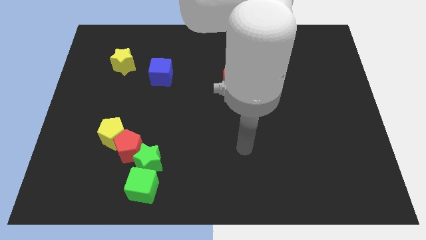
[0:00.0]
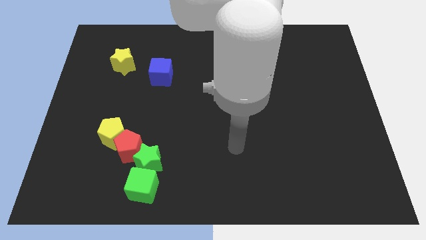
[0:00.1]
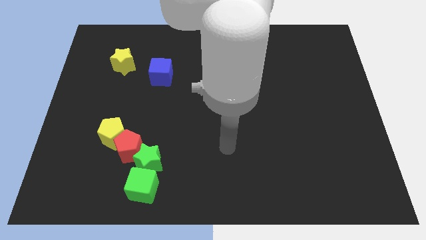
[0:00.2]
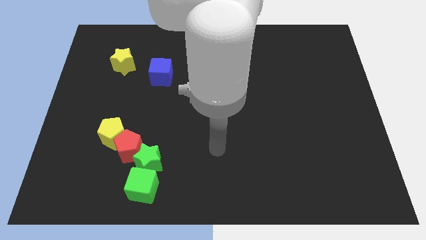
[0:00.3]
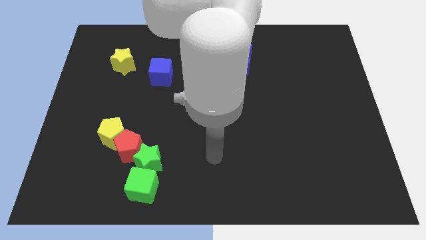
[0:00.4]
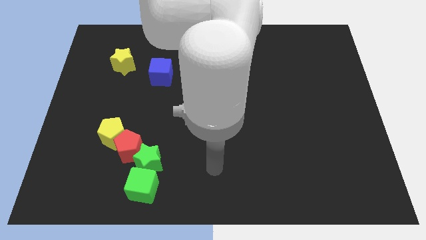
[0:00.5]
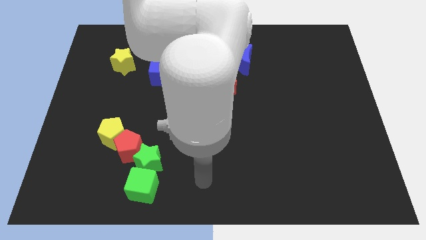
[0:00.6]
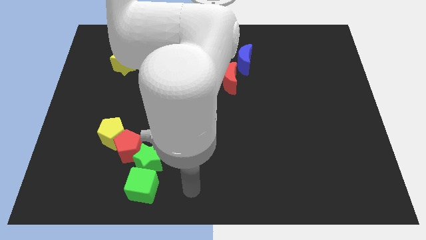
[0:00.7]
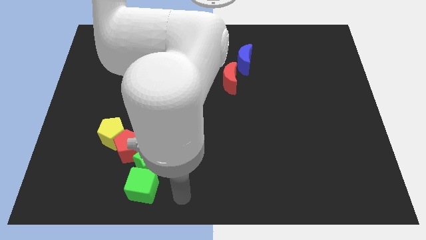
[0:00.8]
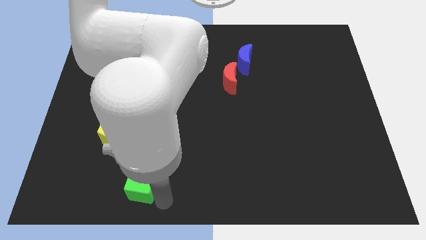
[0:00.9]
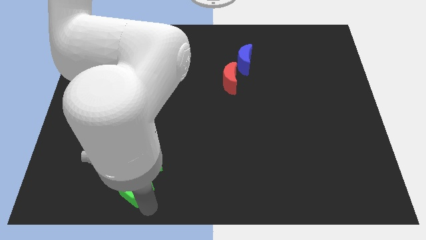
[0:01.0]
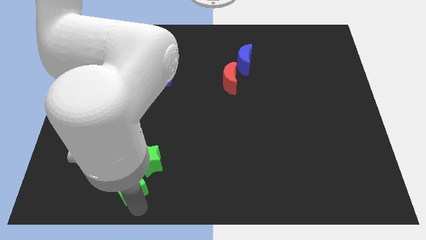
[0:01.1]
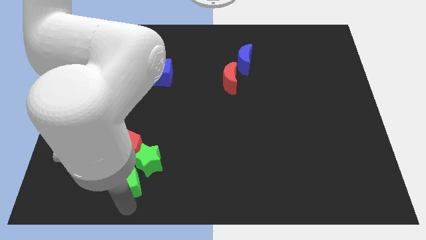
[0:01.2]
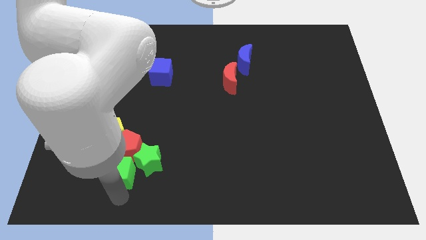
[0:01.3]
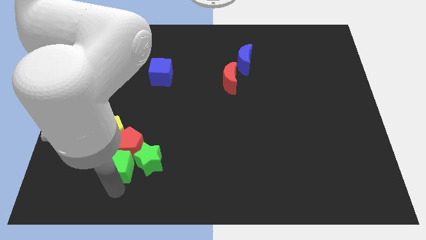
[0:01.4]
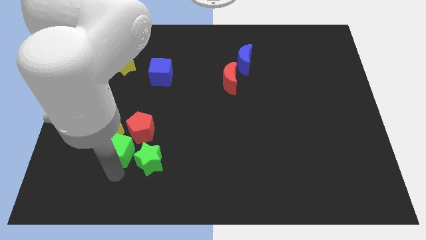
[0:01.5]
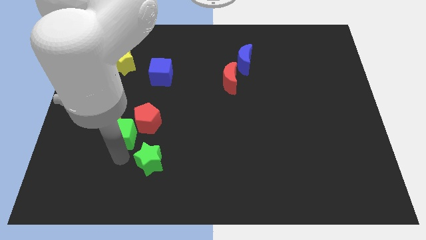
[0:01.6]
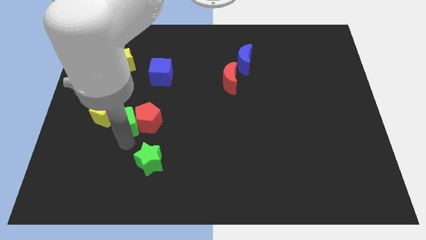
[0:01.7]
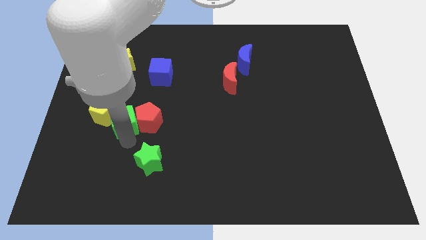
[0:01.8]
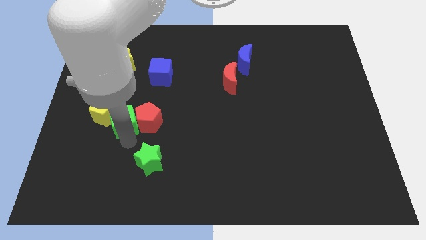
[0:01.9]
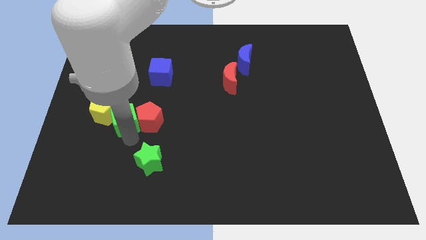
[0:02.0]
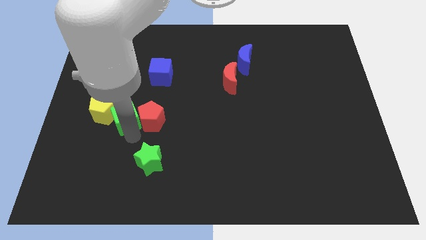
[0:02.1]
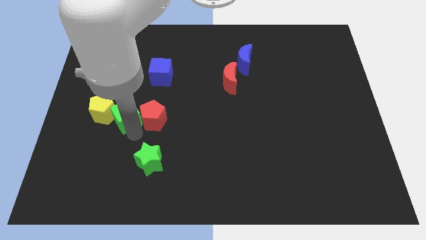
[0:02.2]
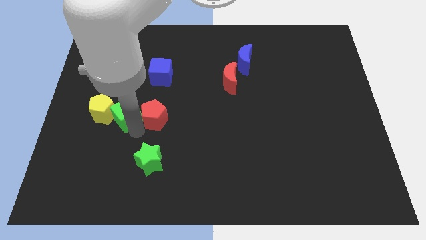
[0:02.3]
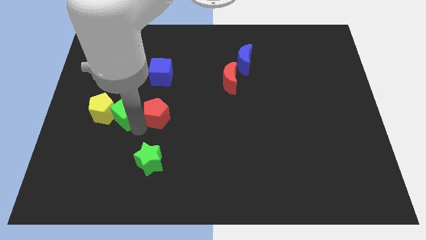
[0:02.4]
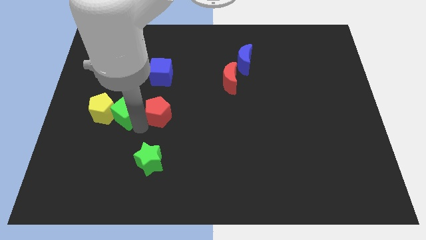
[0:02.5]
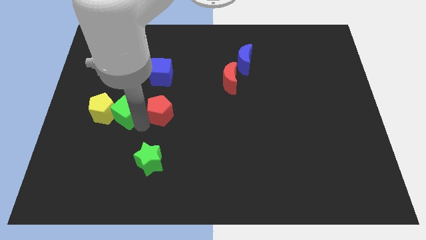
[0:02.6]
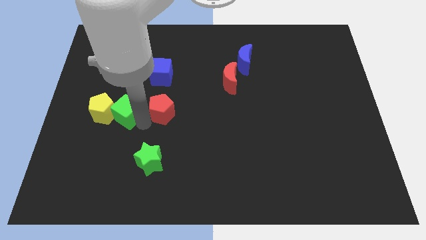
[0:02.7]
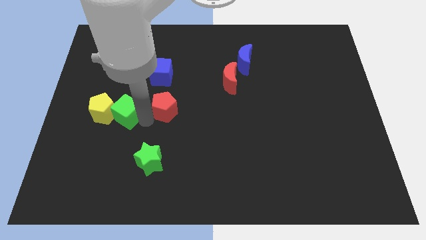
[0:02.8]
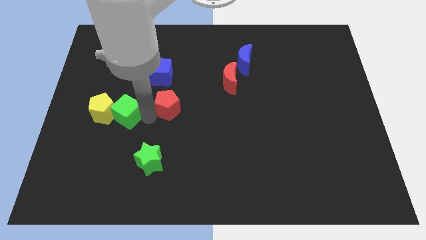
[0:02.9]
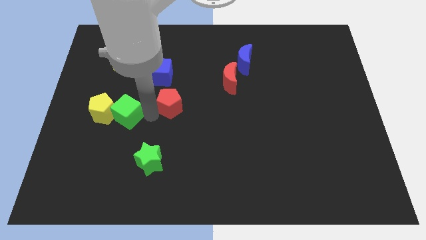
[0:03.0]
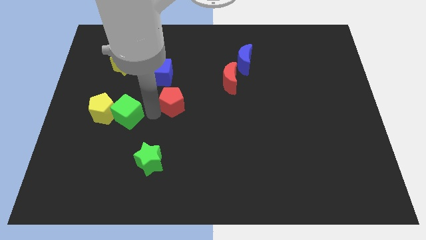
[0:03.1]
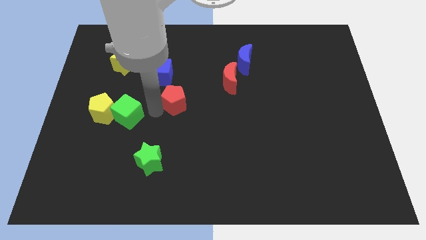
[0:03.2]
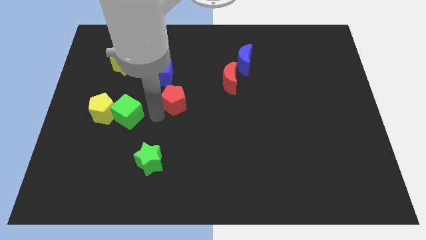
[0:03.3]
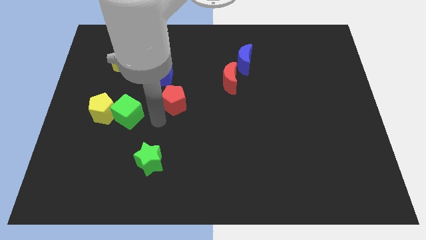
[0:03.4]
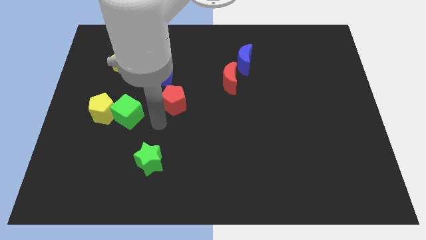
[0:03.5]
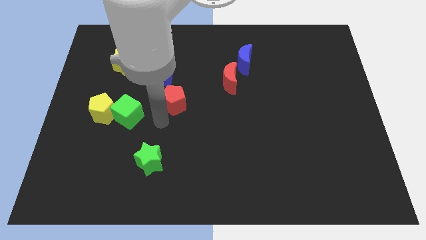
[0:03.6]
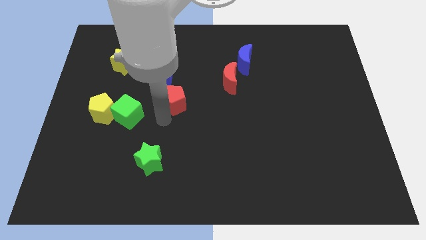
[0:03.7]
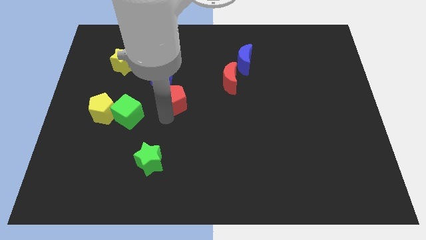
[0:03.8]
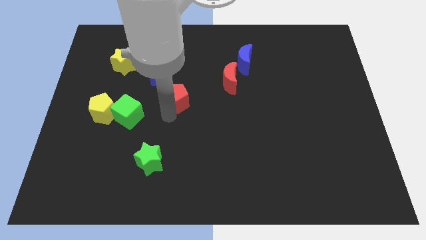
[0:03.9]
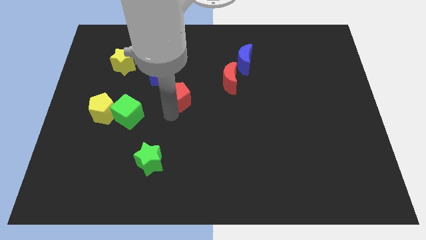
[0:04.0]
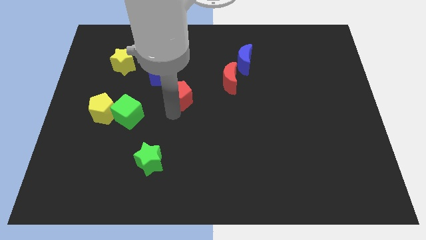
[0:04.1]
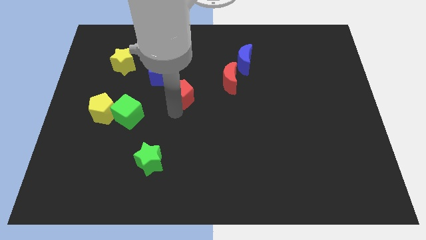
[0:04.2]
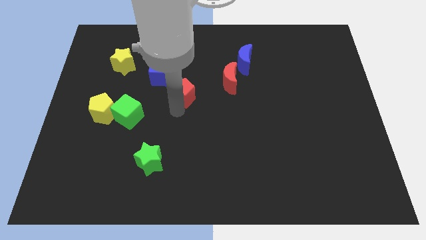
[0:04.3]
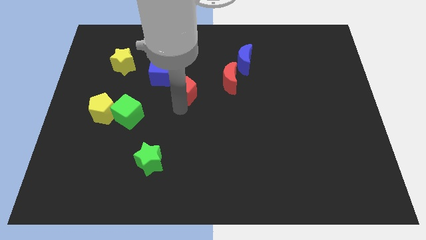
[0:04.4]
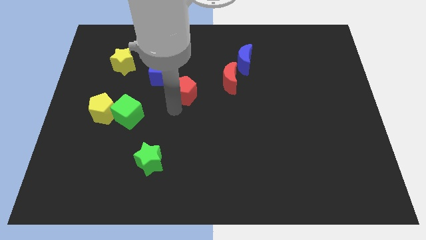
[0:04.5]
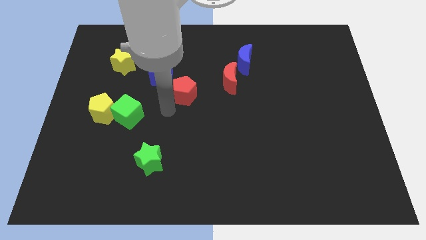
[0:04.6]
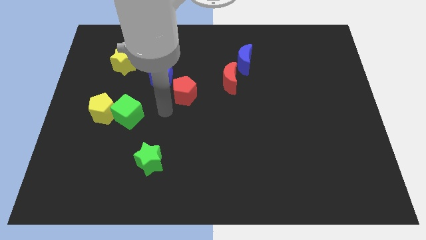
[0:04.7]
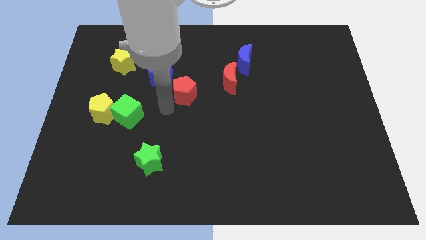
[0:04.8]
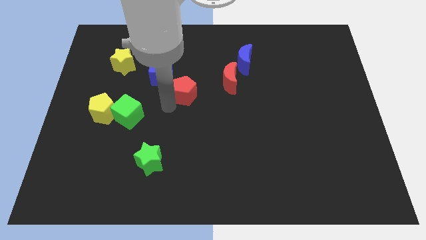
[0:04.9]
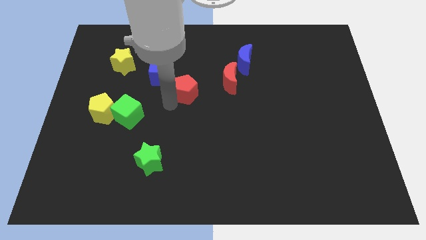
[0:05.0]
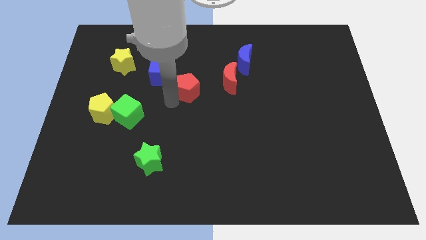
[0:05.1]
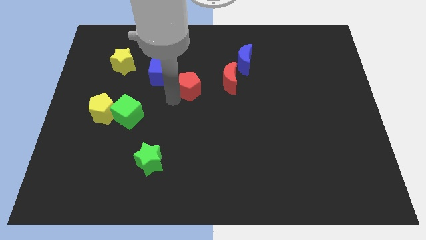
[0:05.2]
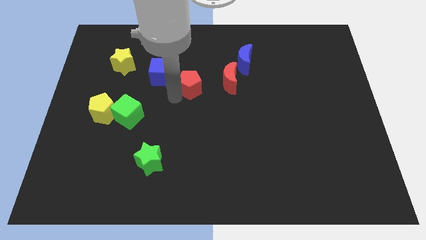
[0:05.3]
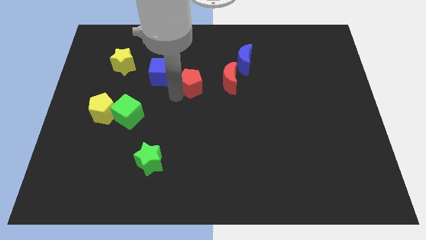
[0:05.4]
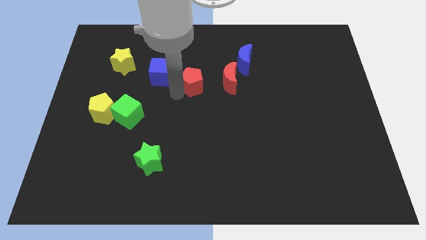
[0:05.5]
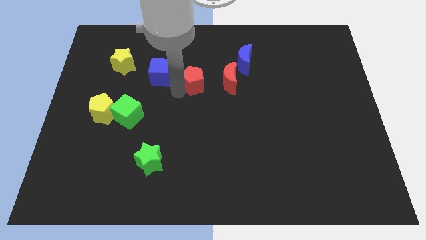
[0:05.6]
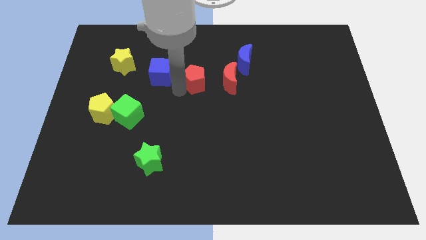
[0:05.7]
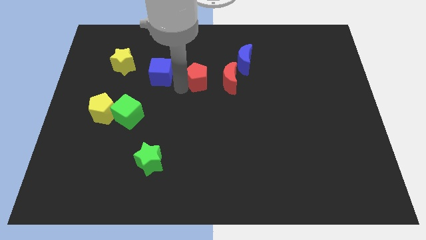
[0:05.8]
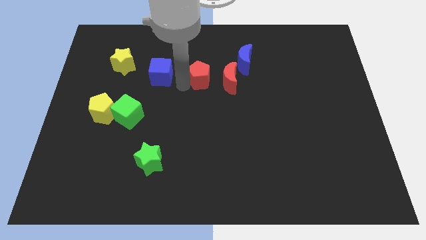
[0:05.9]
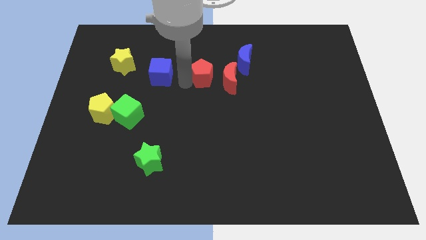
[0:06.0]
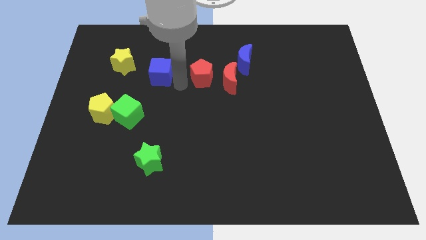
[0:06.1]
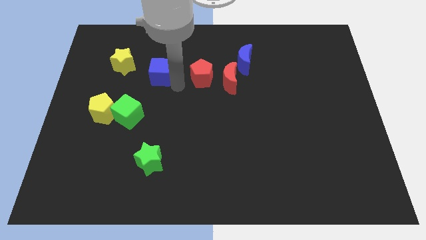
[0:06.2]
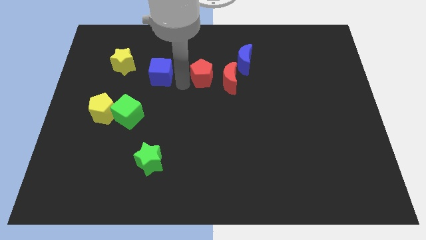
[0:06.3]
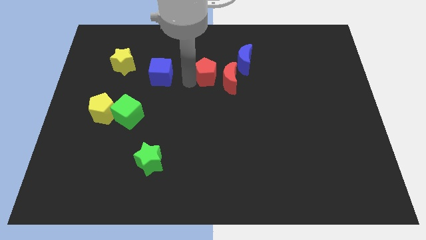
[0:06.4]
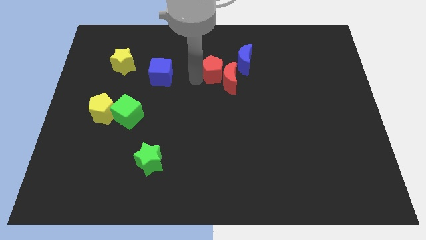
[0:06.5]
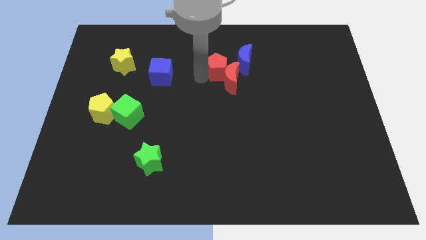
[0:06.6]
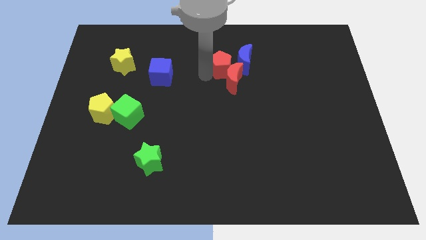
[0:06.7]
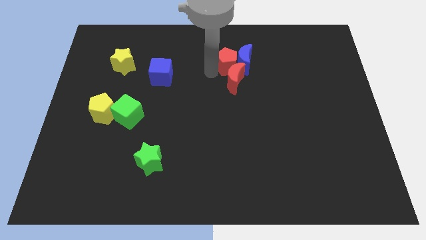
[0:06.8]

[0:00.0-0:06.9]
push the red pentagon next to the blue moon

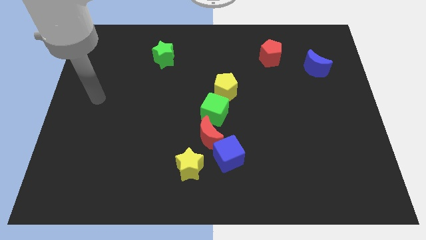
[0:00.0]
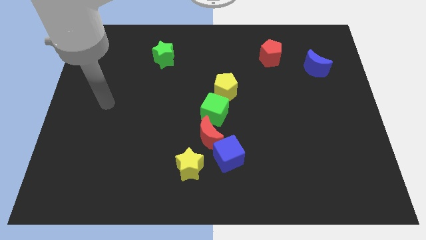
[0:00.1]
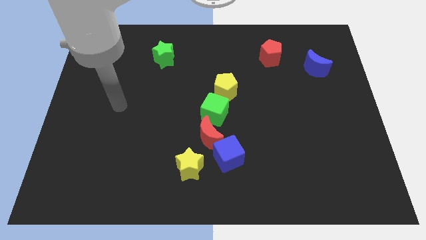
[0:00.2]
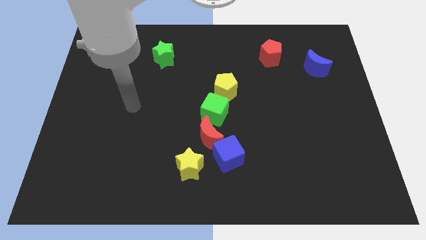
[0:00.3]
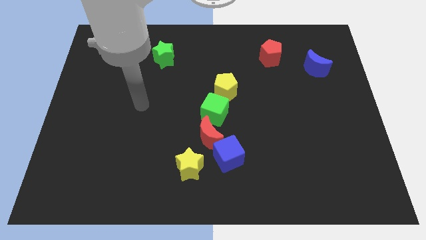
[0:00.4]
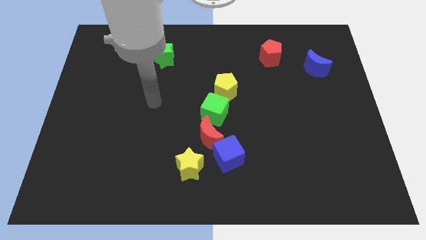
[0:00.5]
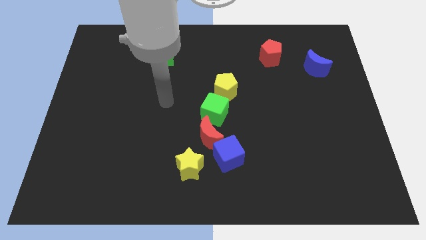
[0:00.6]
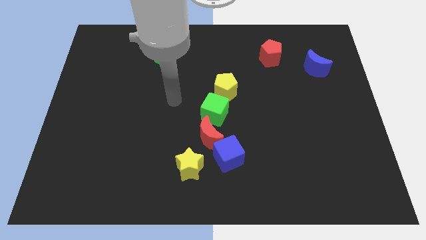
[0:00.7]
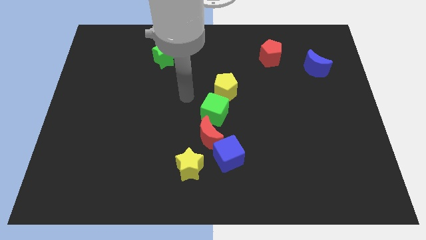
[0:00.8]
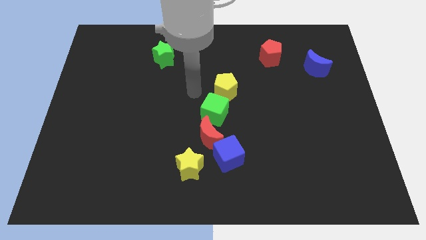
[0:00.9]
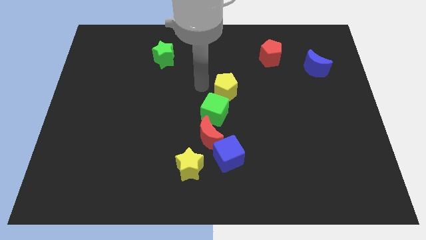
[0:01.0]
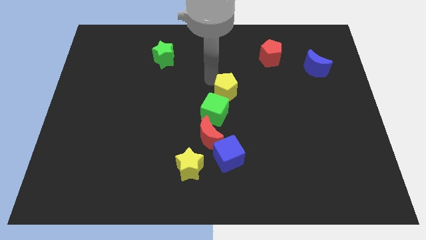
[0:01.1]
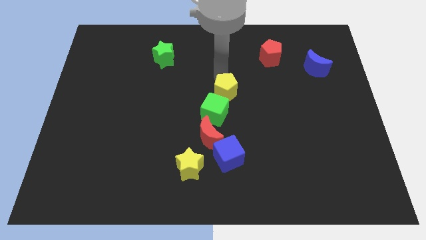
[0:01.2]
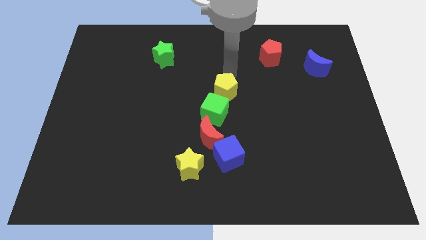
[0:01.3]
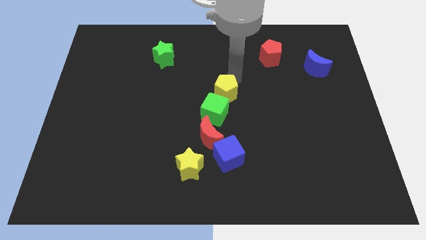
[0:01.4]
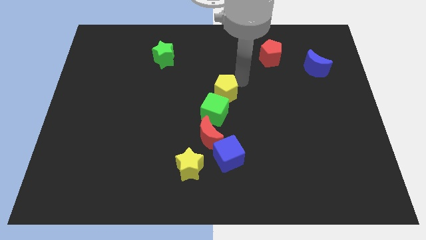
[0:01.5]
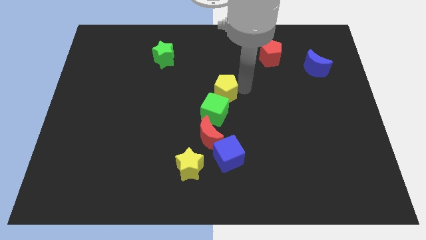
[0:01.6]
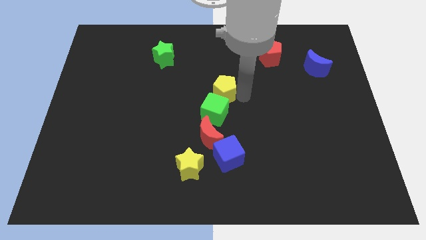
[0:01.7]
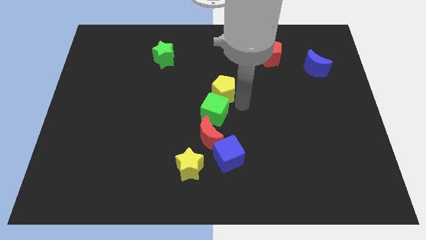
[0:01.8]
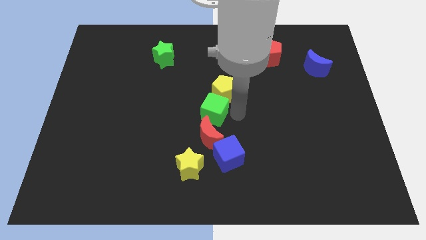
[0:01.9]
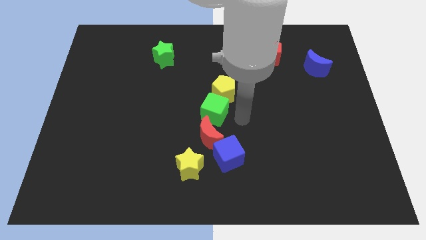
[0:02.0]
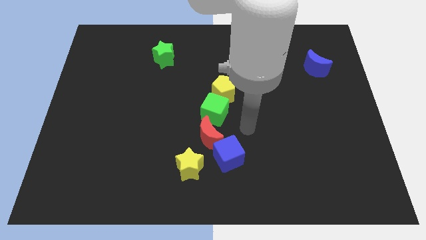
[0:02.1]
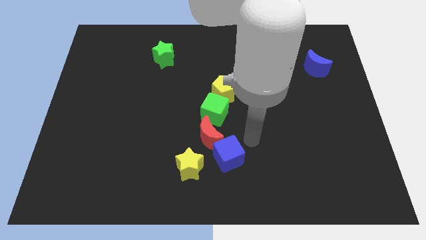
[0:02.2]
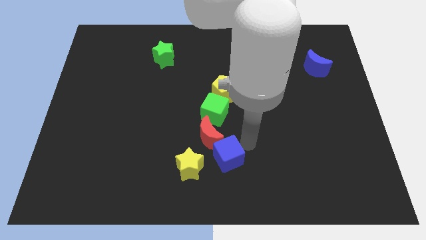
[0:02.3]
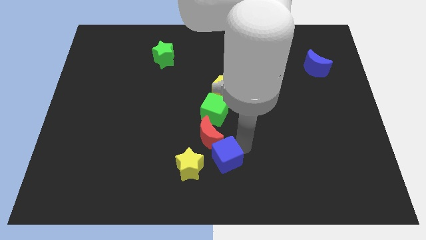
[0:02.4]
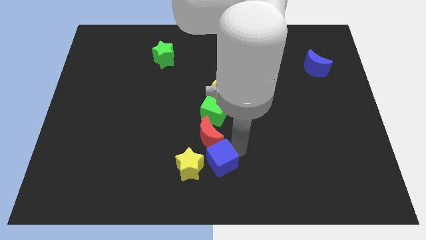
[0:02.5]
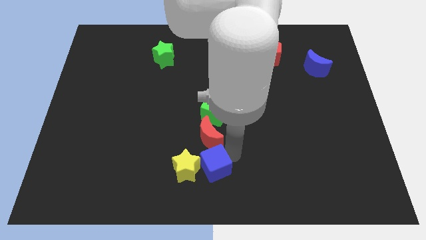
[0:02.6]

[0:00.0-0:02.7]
move the blue cube next to the yellow star
